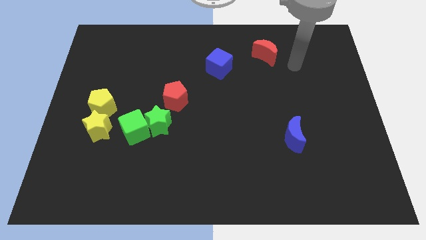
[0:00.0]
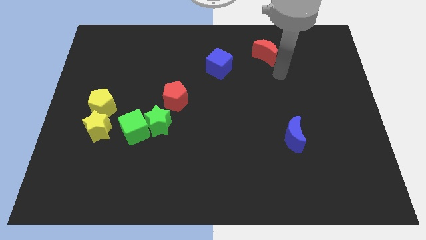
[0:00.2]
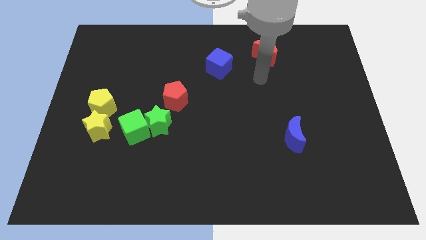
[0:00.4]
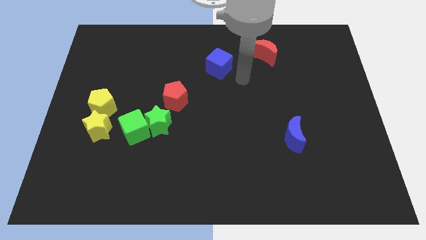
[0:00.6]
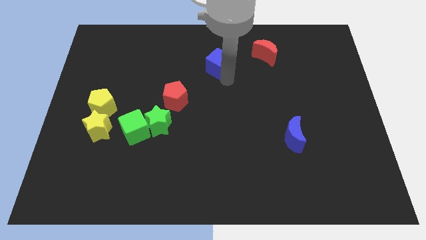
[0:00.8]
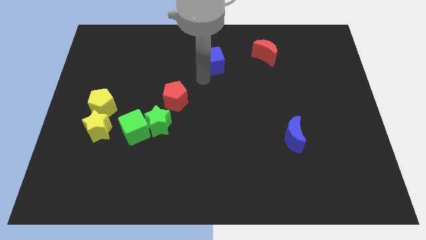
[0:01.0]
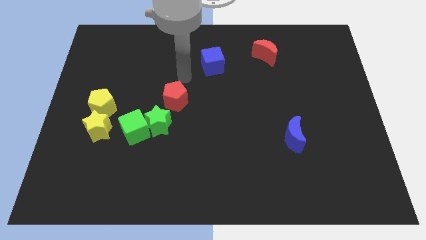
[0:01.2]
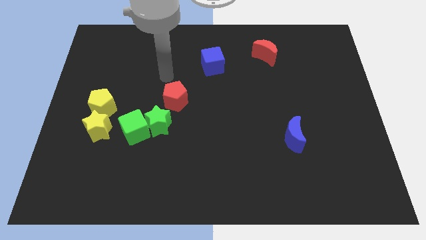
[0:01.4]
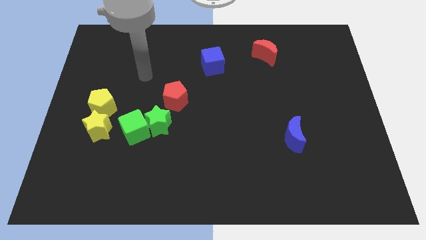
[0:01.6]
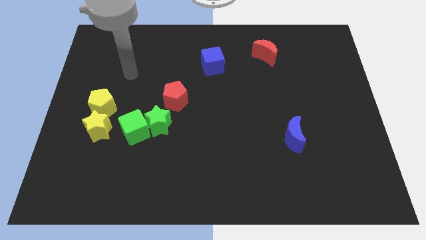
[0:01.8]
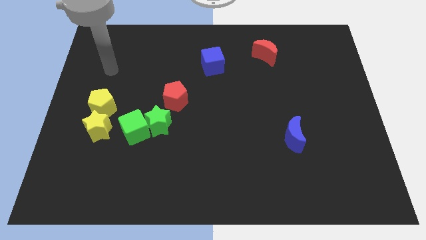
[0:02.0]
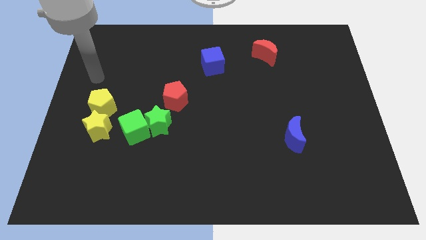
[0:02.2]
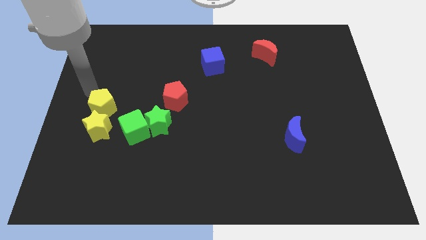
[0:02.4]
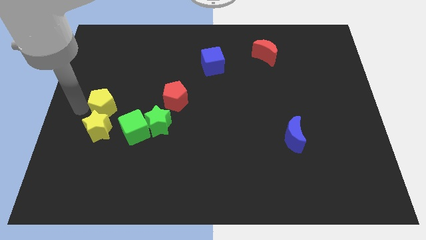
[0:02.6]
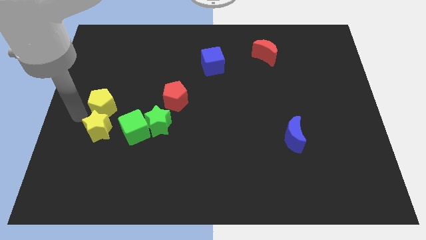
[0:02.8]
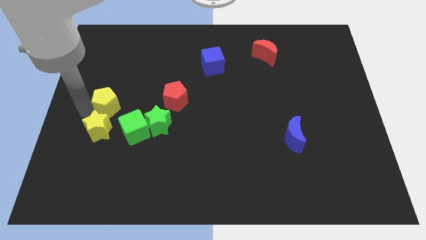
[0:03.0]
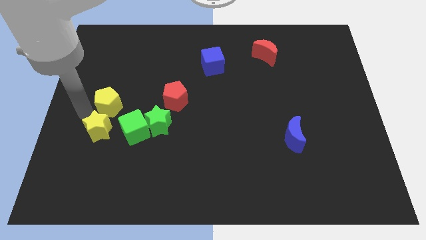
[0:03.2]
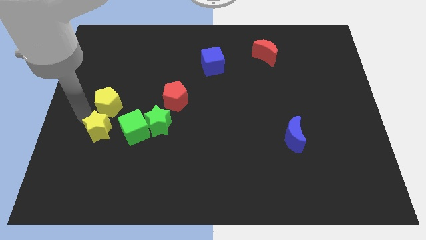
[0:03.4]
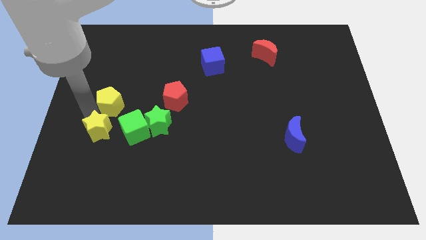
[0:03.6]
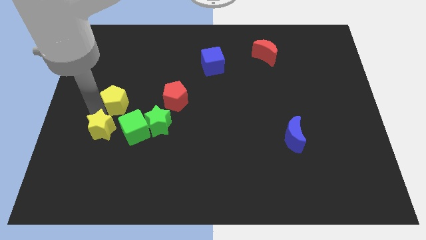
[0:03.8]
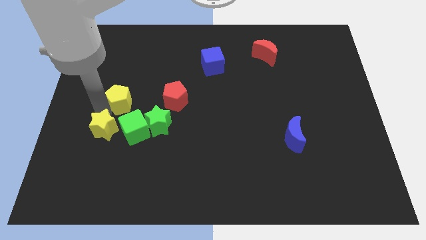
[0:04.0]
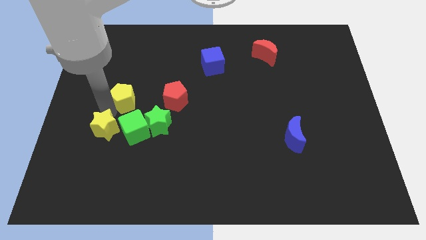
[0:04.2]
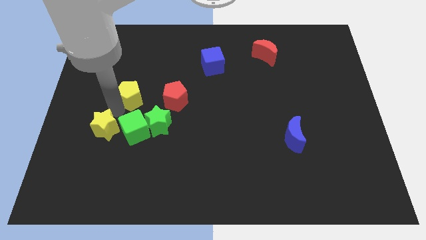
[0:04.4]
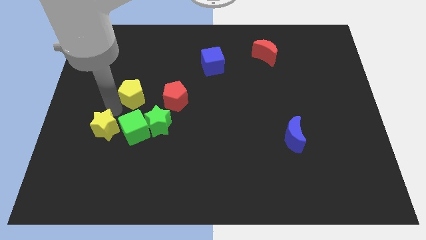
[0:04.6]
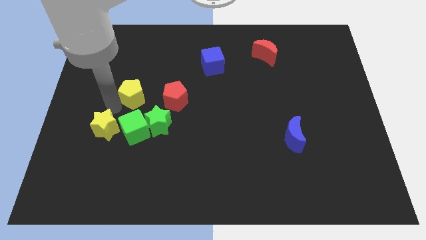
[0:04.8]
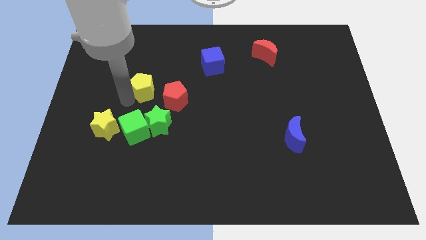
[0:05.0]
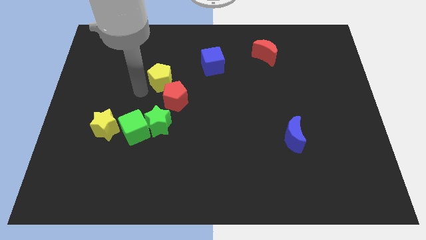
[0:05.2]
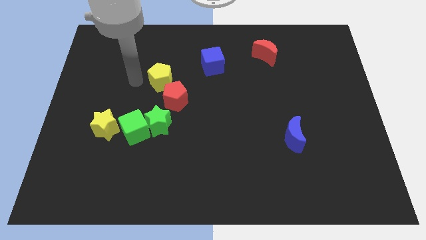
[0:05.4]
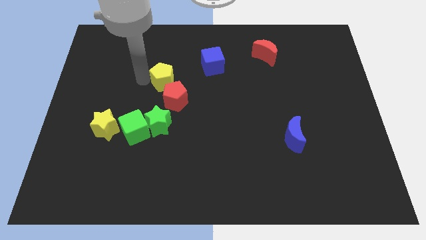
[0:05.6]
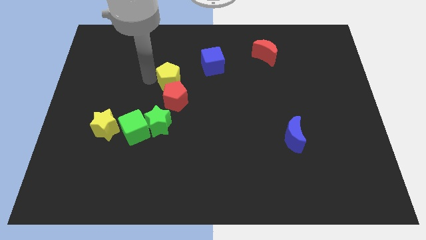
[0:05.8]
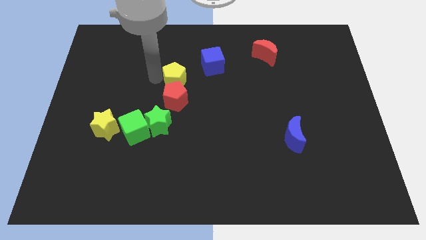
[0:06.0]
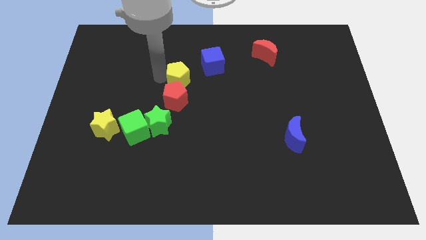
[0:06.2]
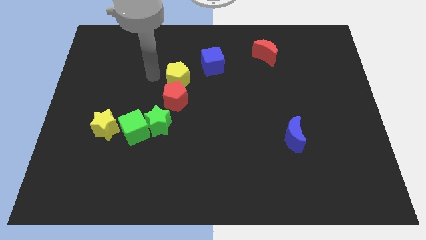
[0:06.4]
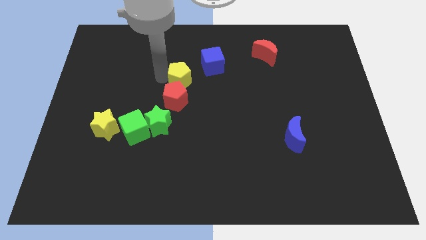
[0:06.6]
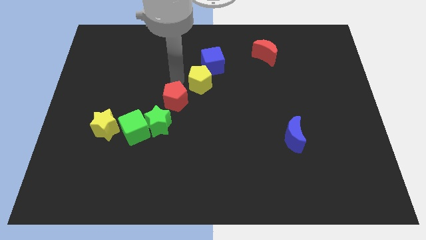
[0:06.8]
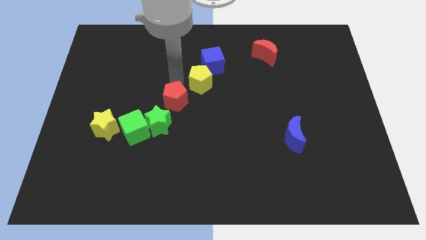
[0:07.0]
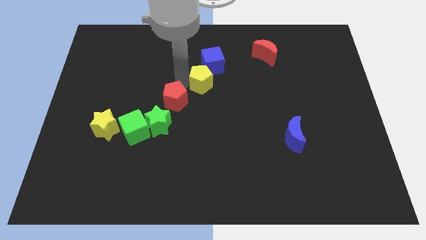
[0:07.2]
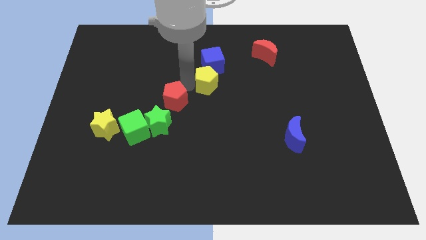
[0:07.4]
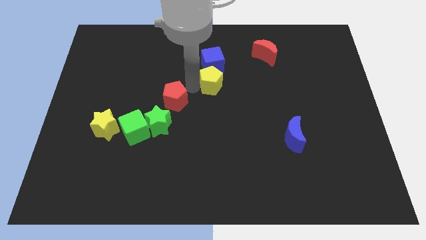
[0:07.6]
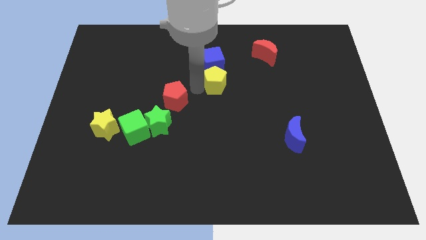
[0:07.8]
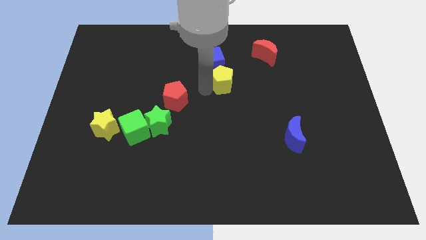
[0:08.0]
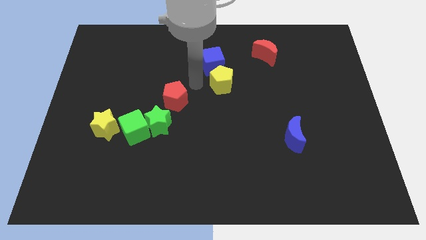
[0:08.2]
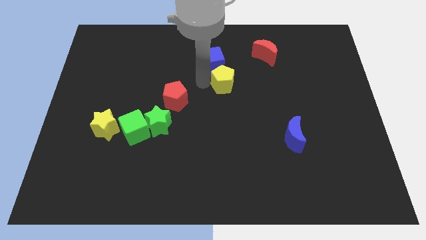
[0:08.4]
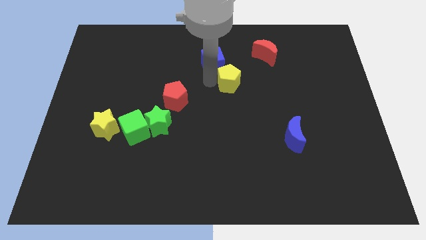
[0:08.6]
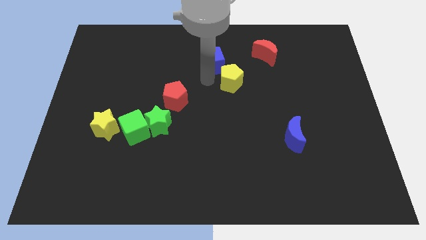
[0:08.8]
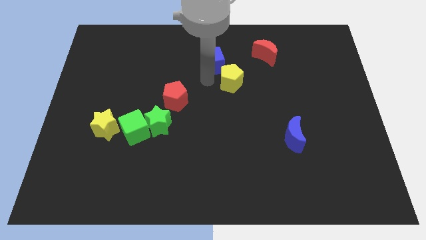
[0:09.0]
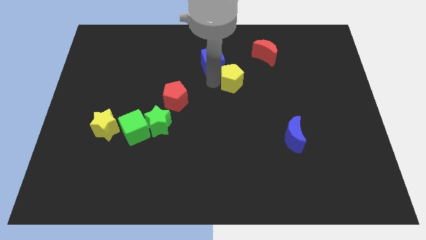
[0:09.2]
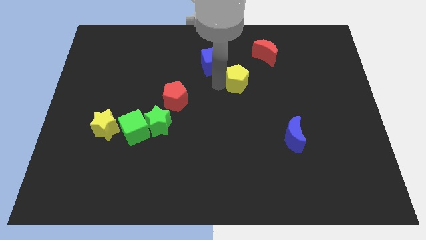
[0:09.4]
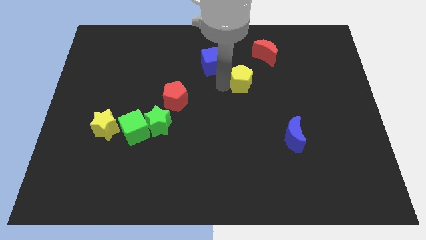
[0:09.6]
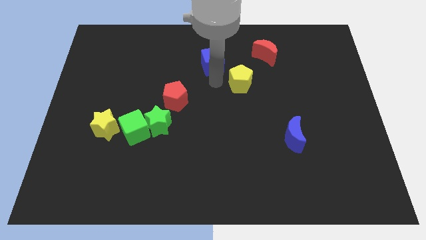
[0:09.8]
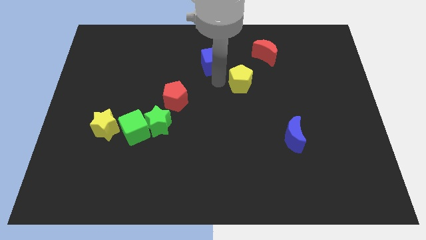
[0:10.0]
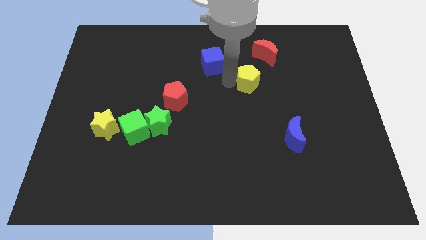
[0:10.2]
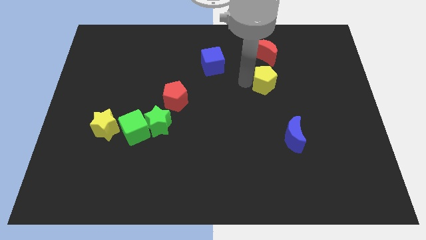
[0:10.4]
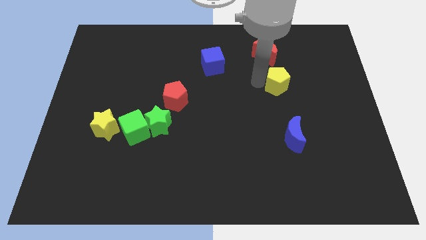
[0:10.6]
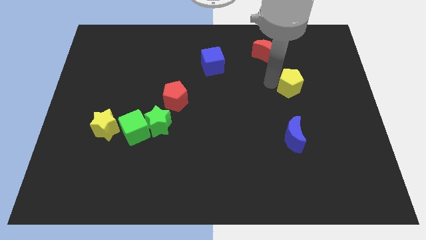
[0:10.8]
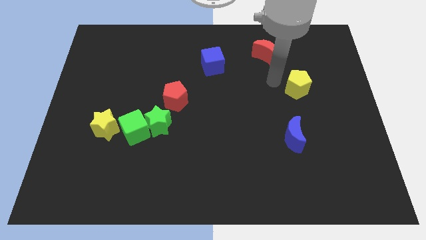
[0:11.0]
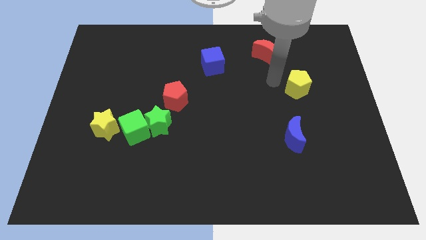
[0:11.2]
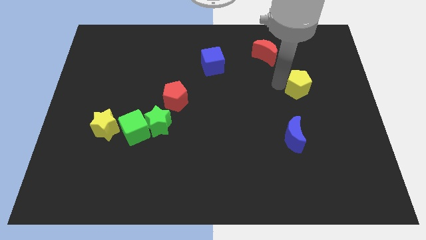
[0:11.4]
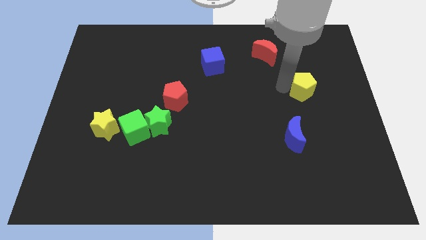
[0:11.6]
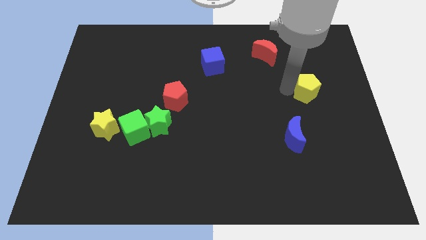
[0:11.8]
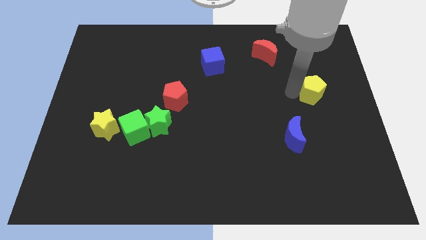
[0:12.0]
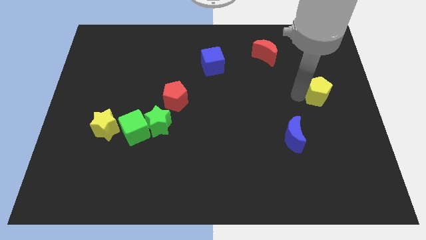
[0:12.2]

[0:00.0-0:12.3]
move the yellow pentagon to the right side
